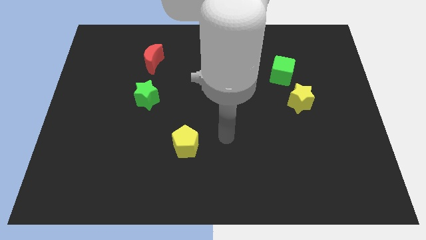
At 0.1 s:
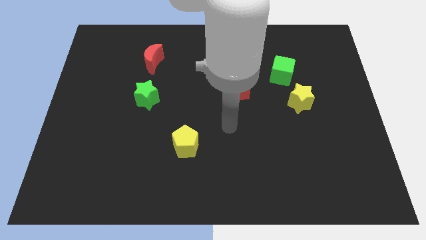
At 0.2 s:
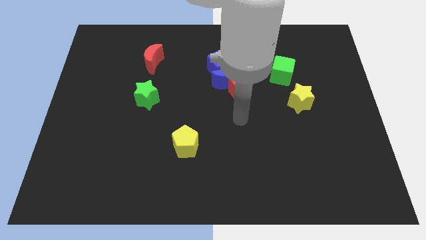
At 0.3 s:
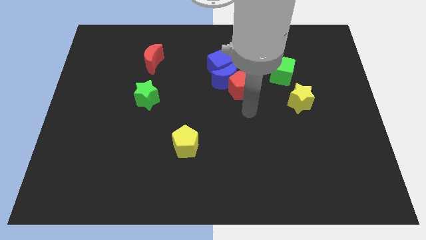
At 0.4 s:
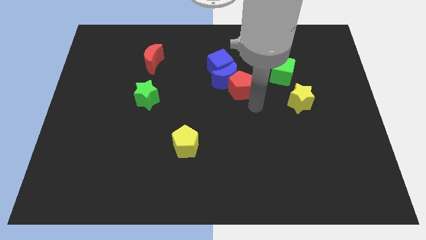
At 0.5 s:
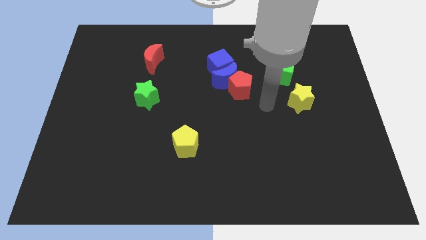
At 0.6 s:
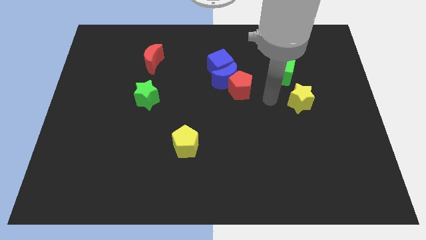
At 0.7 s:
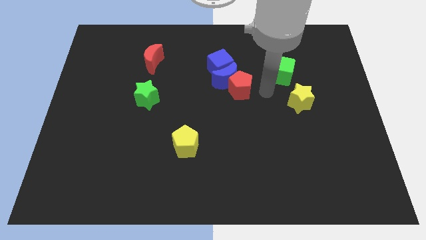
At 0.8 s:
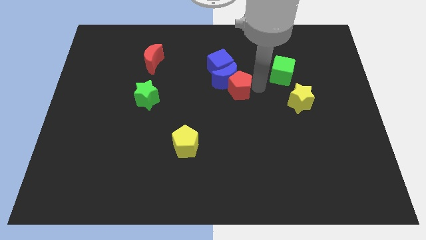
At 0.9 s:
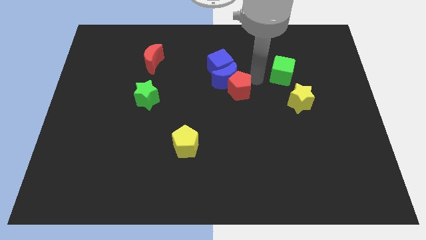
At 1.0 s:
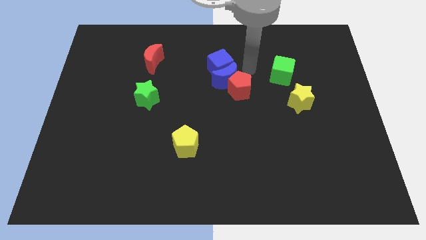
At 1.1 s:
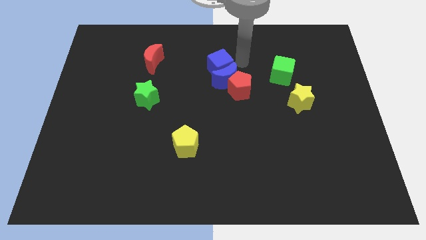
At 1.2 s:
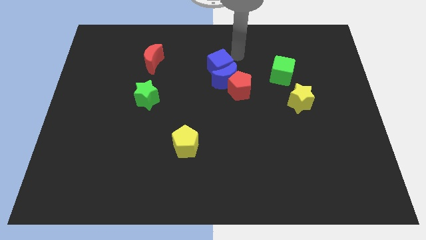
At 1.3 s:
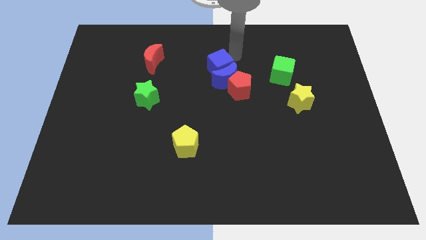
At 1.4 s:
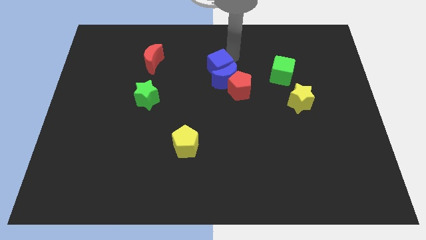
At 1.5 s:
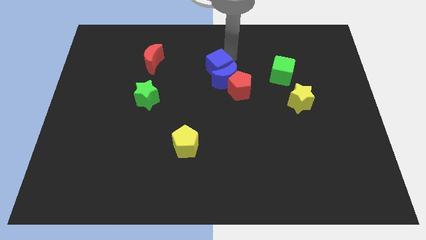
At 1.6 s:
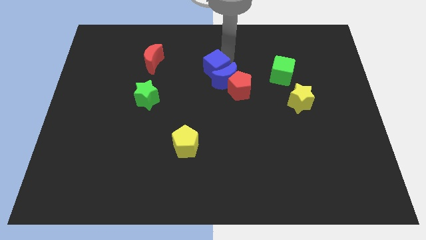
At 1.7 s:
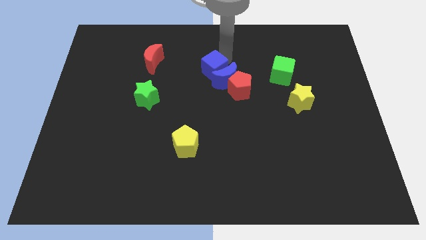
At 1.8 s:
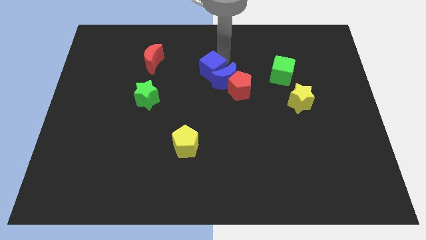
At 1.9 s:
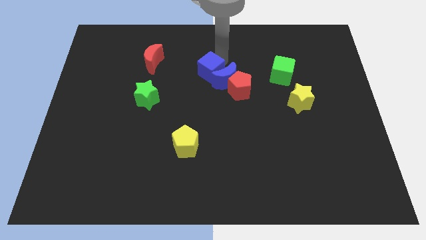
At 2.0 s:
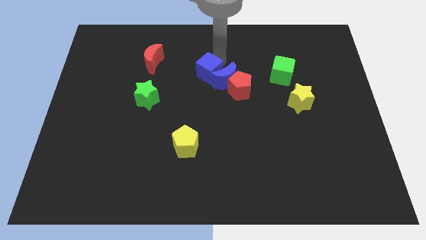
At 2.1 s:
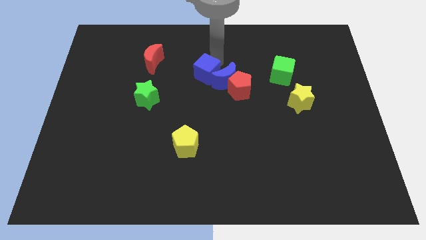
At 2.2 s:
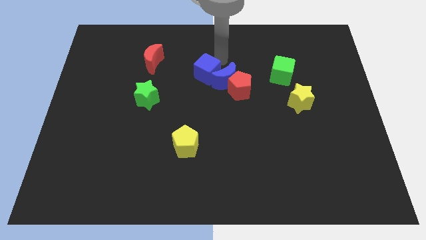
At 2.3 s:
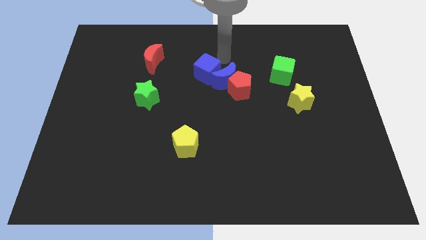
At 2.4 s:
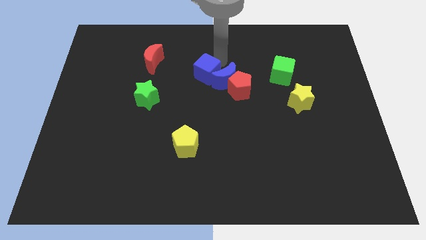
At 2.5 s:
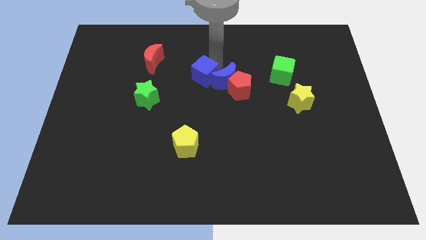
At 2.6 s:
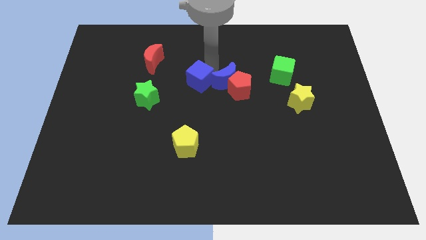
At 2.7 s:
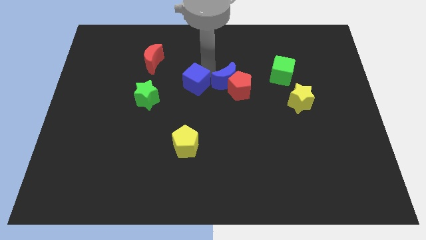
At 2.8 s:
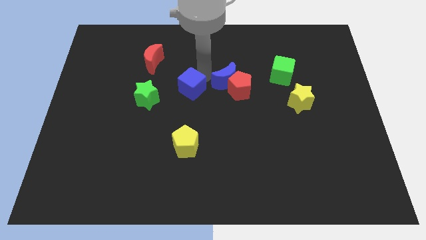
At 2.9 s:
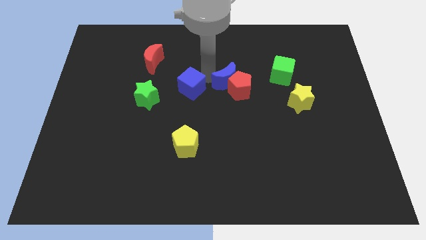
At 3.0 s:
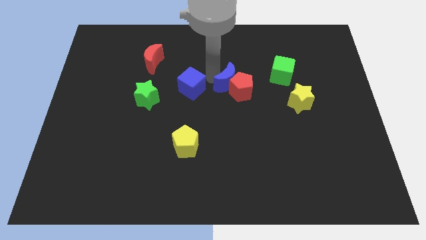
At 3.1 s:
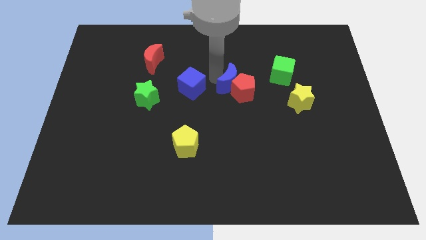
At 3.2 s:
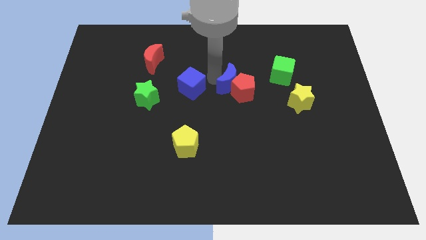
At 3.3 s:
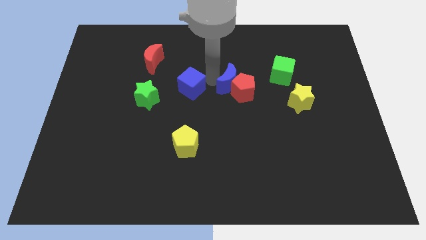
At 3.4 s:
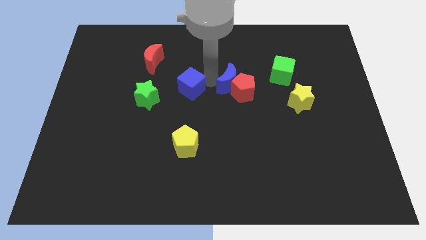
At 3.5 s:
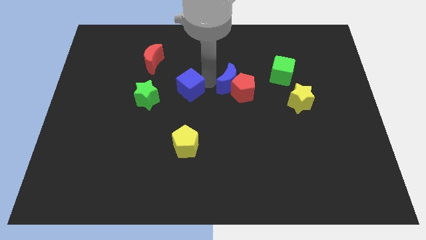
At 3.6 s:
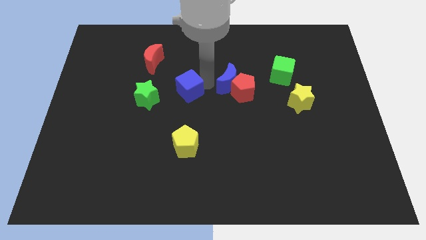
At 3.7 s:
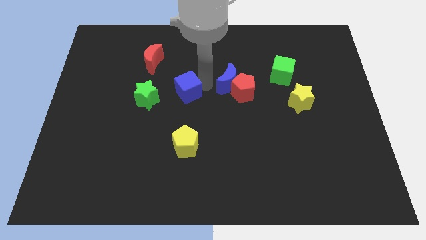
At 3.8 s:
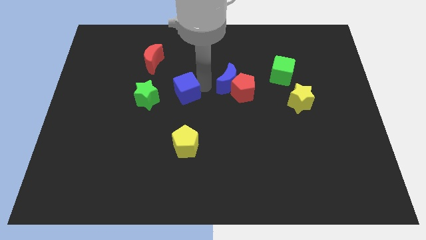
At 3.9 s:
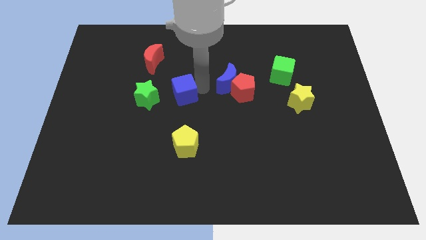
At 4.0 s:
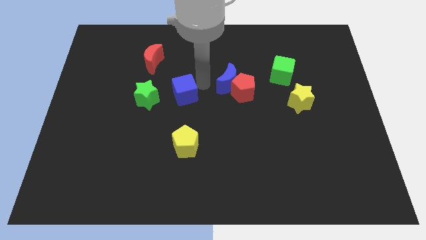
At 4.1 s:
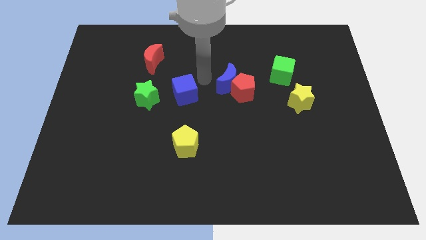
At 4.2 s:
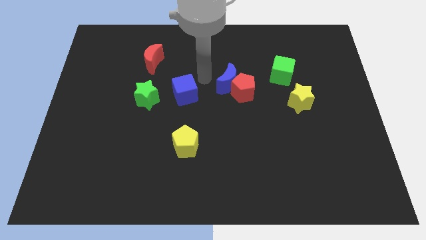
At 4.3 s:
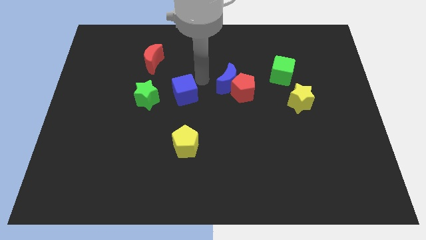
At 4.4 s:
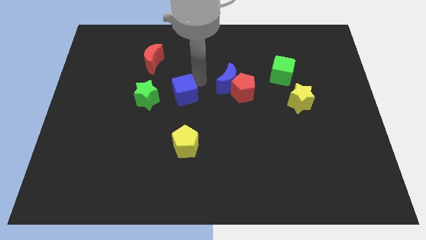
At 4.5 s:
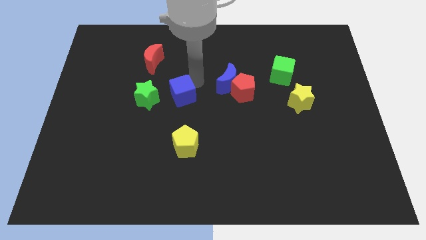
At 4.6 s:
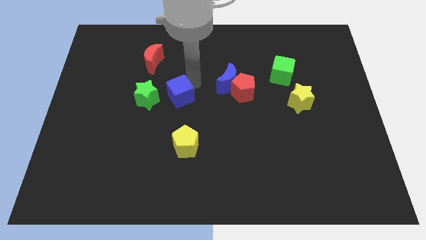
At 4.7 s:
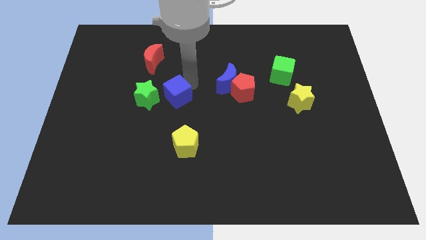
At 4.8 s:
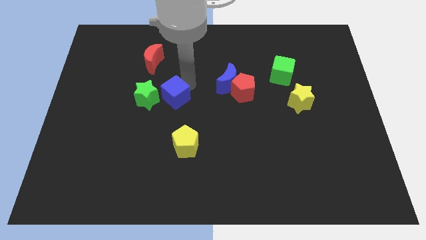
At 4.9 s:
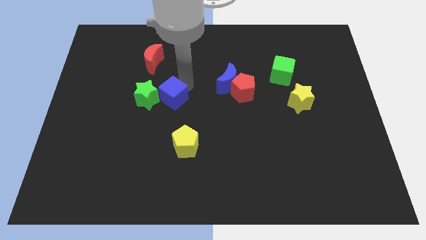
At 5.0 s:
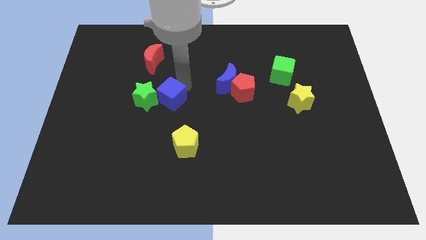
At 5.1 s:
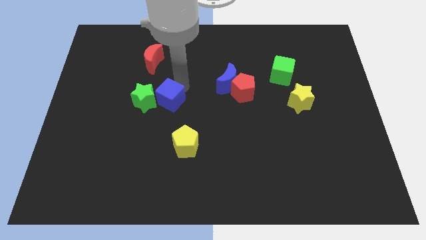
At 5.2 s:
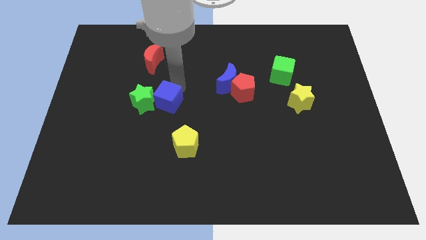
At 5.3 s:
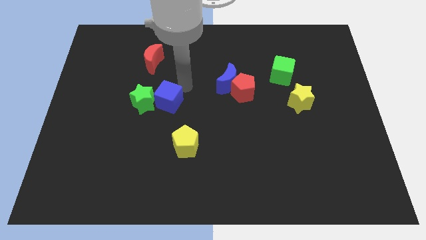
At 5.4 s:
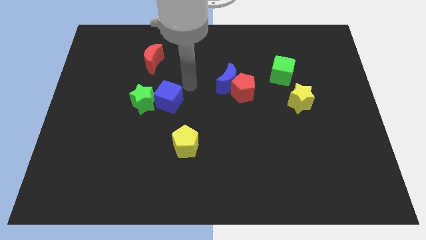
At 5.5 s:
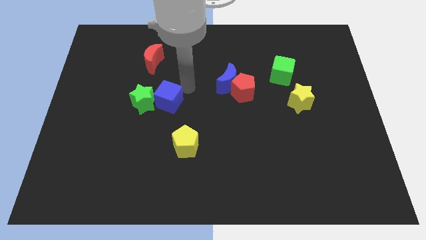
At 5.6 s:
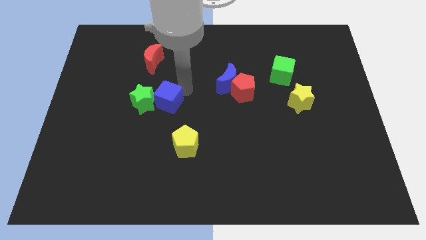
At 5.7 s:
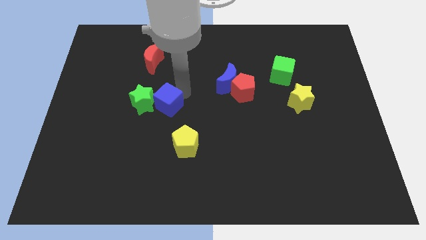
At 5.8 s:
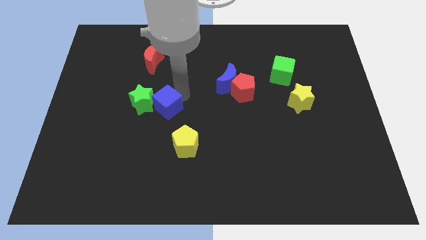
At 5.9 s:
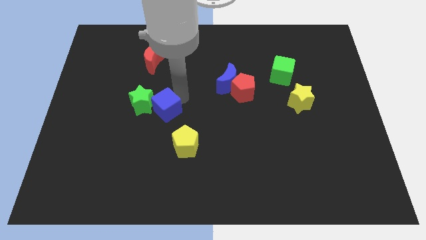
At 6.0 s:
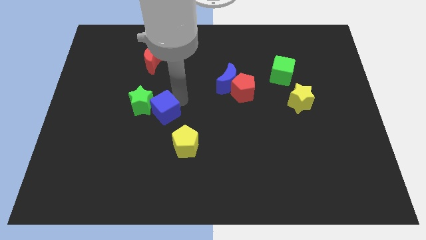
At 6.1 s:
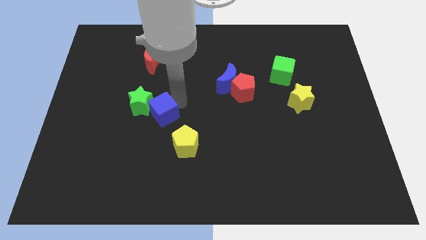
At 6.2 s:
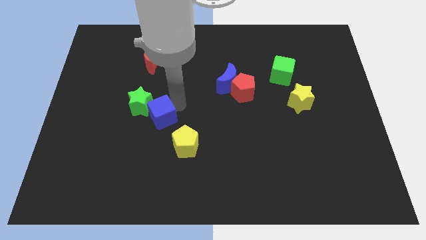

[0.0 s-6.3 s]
move the blue cube downwards and to the left diagonally

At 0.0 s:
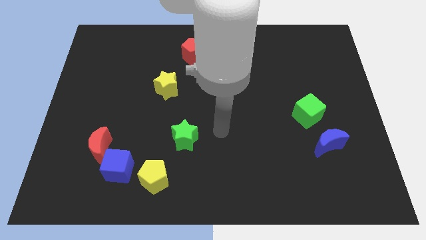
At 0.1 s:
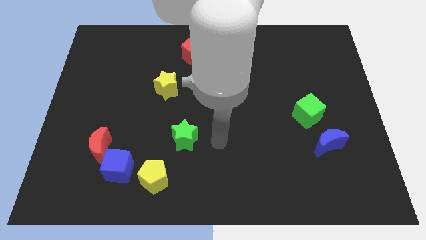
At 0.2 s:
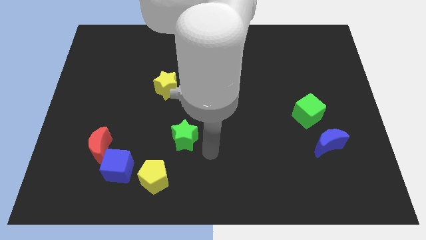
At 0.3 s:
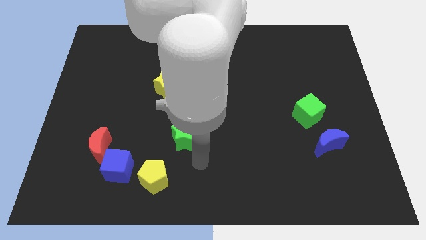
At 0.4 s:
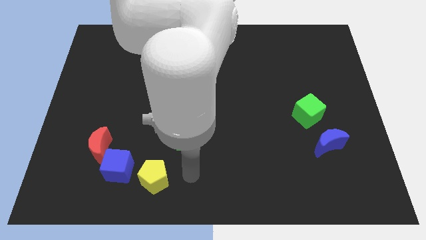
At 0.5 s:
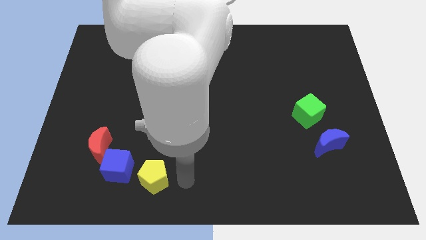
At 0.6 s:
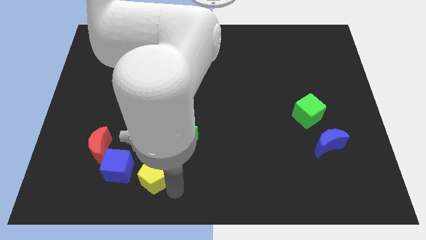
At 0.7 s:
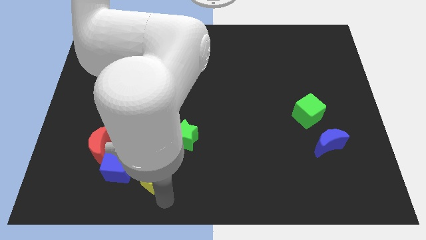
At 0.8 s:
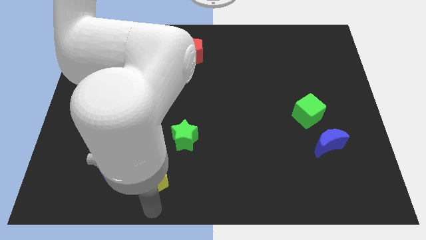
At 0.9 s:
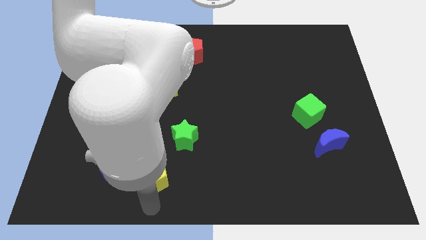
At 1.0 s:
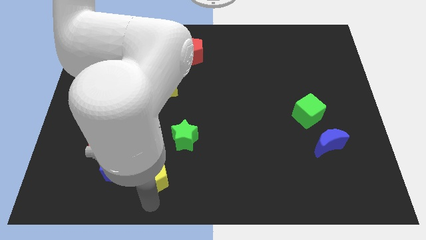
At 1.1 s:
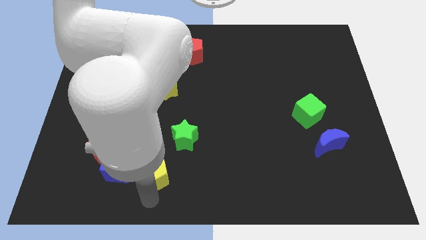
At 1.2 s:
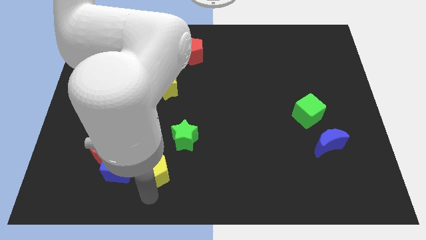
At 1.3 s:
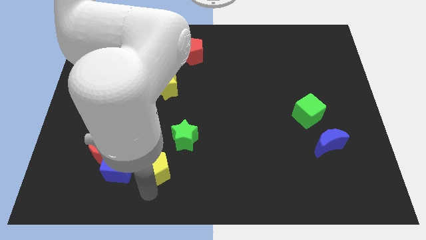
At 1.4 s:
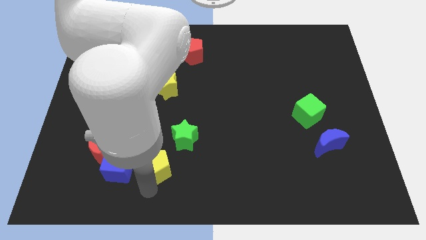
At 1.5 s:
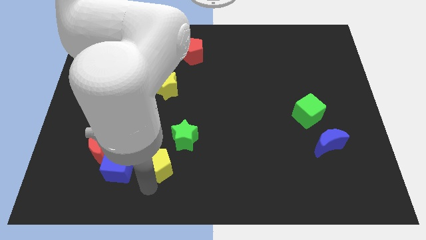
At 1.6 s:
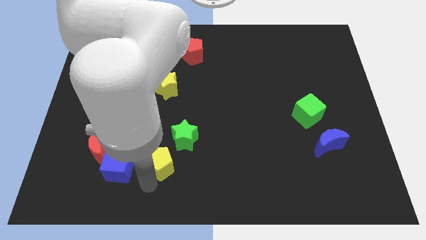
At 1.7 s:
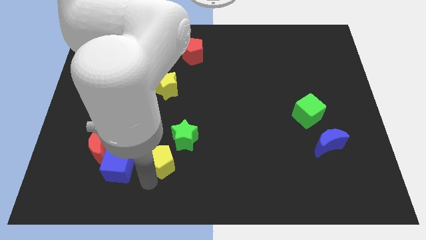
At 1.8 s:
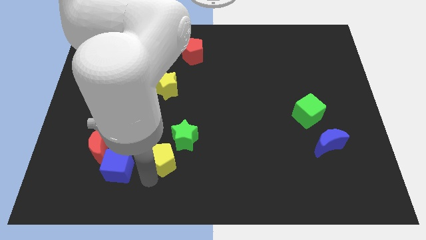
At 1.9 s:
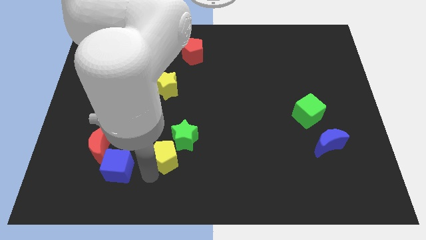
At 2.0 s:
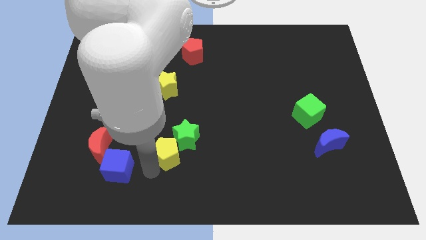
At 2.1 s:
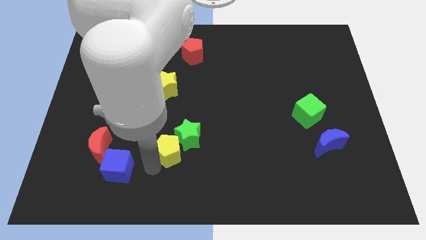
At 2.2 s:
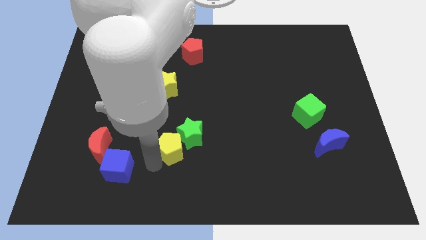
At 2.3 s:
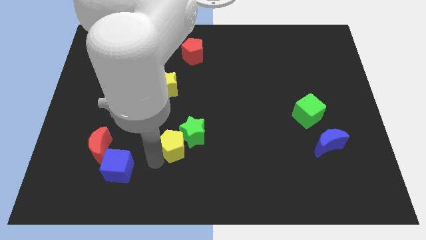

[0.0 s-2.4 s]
slightly move the yellow pentagon up
